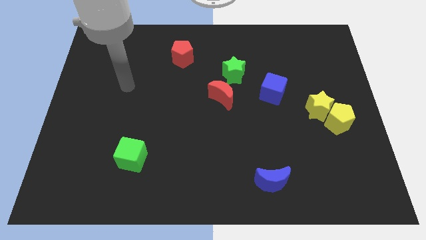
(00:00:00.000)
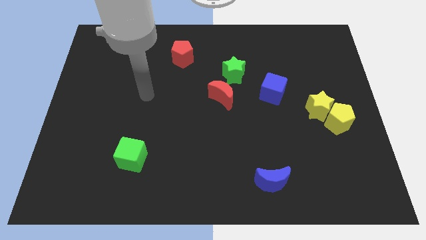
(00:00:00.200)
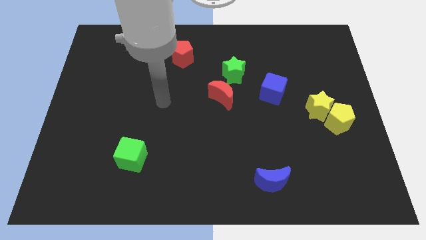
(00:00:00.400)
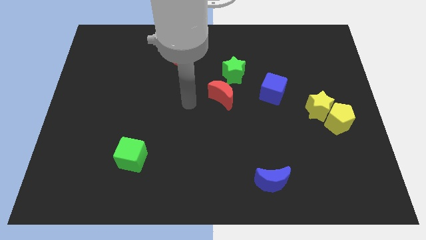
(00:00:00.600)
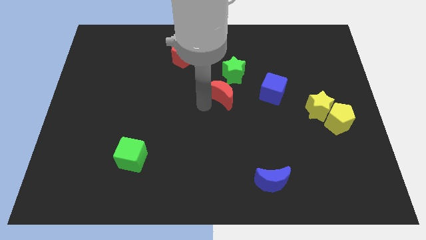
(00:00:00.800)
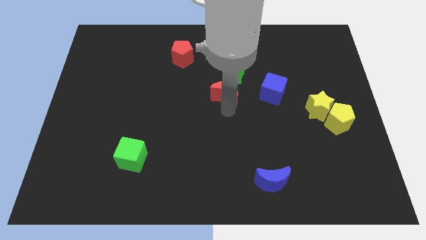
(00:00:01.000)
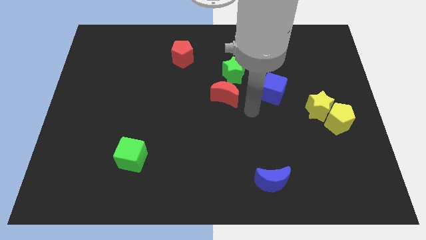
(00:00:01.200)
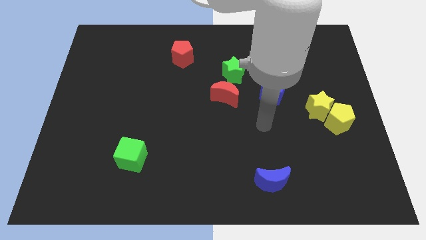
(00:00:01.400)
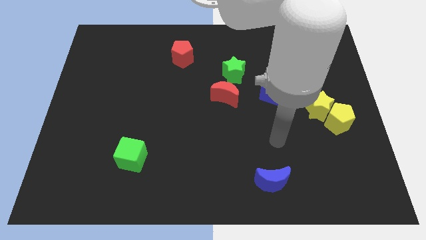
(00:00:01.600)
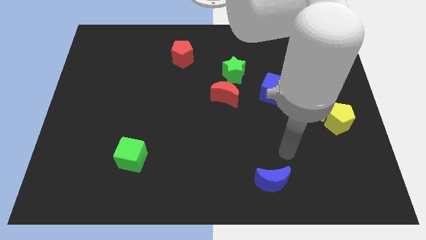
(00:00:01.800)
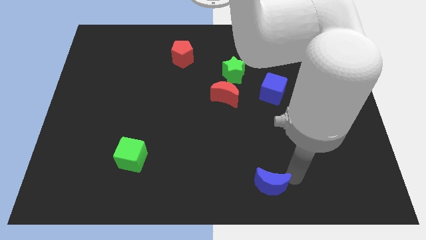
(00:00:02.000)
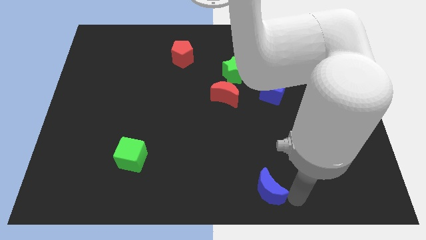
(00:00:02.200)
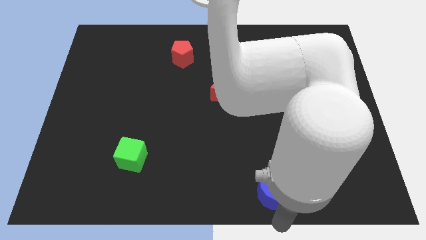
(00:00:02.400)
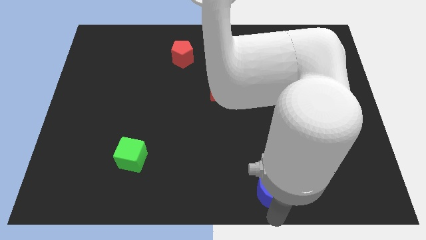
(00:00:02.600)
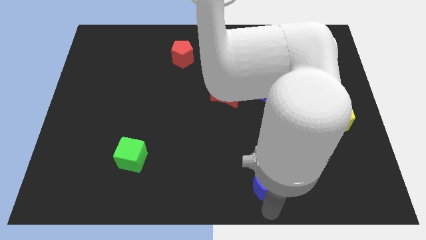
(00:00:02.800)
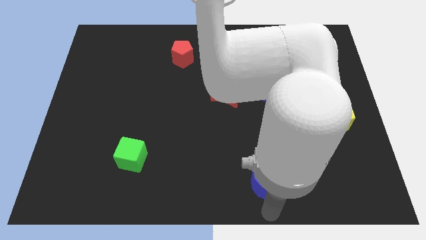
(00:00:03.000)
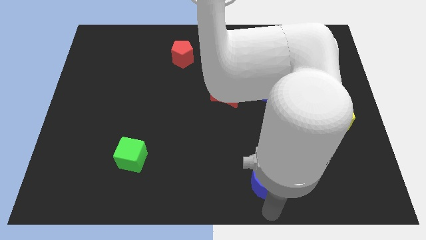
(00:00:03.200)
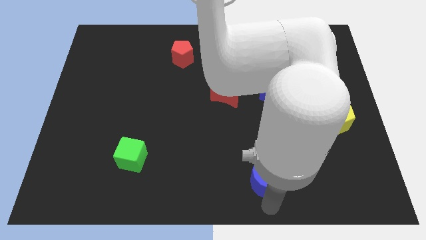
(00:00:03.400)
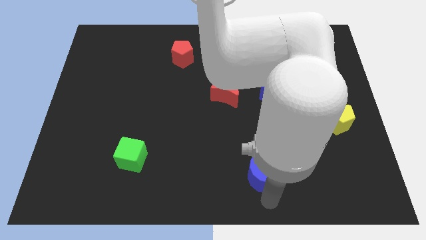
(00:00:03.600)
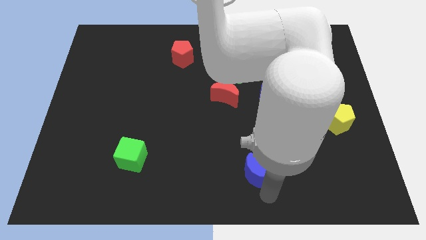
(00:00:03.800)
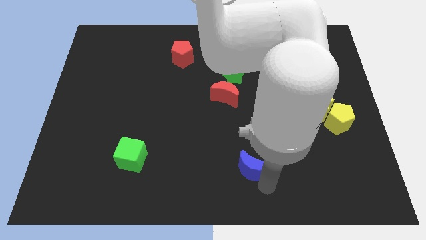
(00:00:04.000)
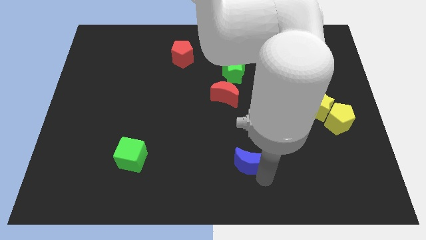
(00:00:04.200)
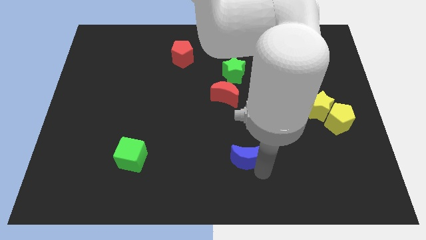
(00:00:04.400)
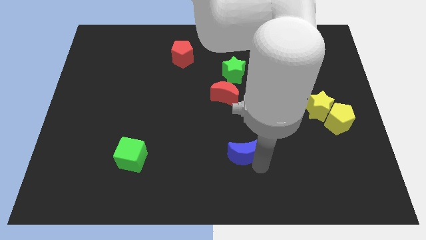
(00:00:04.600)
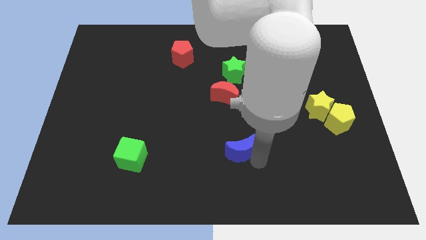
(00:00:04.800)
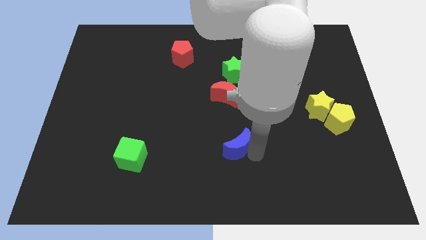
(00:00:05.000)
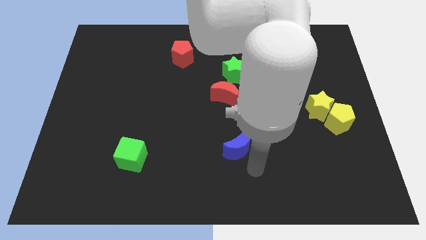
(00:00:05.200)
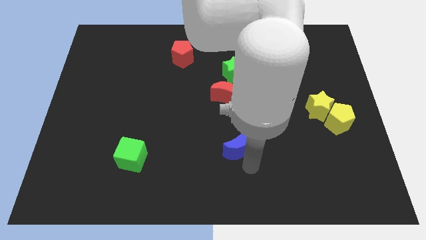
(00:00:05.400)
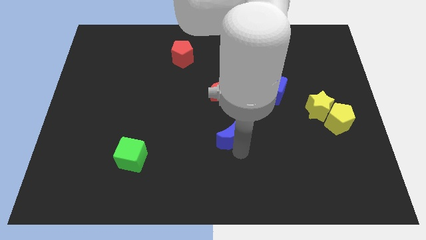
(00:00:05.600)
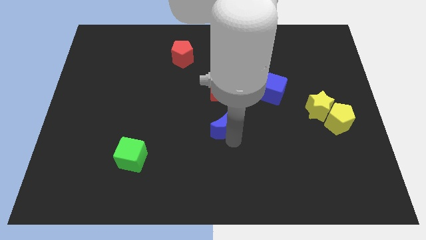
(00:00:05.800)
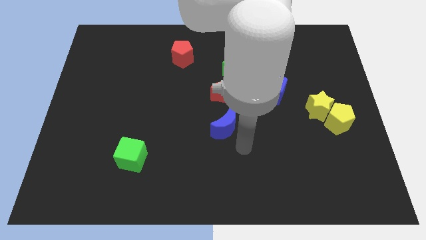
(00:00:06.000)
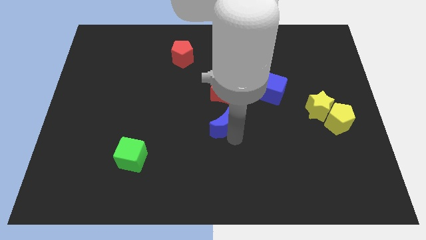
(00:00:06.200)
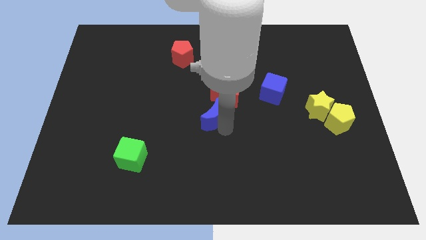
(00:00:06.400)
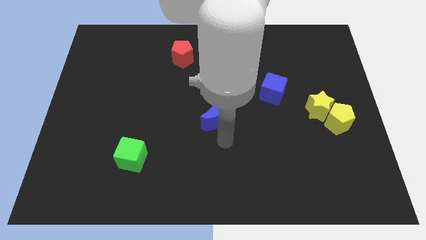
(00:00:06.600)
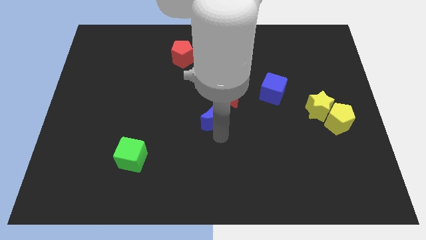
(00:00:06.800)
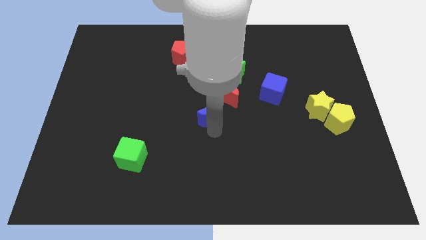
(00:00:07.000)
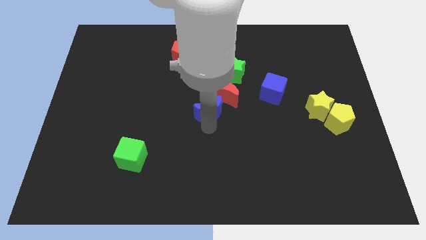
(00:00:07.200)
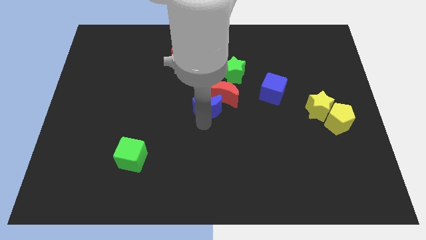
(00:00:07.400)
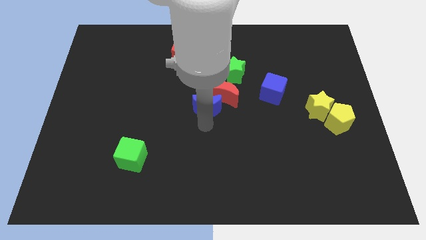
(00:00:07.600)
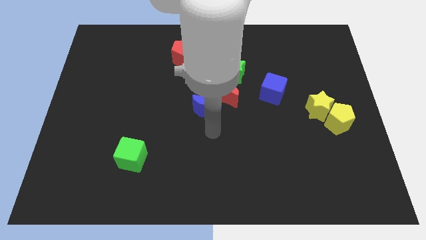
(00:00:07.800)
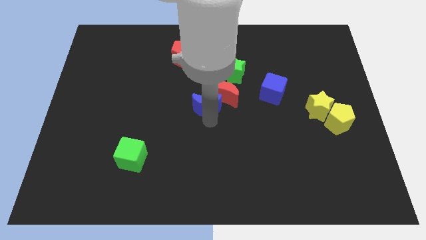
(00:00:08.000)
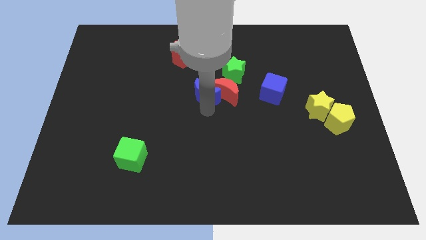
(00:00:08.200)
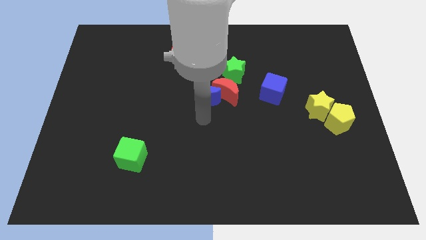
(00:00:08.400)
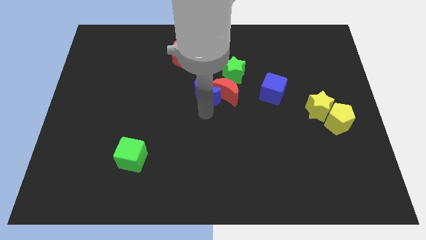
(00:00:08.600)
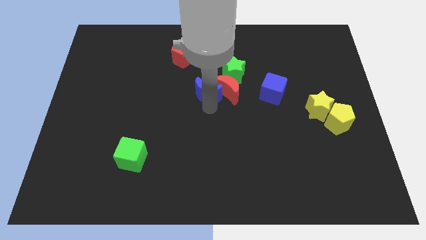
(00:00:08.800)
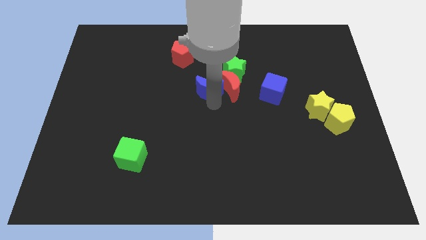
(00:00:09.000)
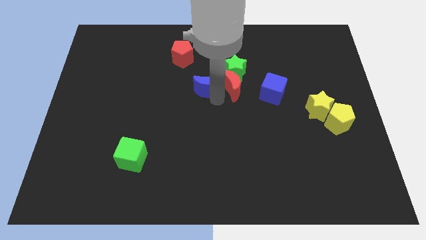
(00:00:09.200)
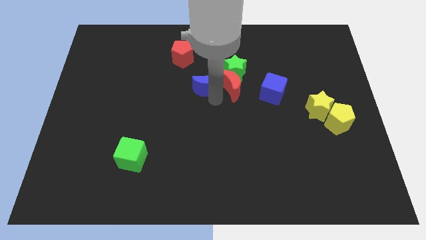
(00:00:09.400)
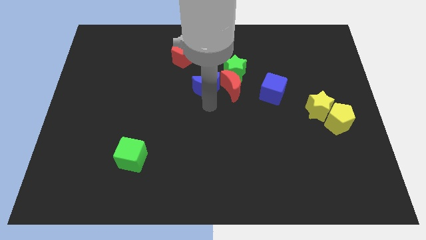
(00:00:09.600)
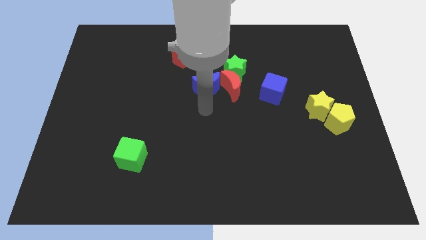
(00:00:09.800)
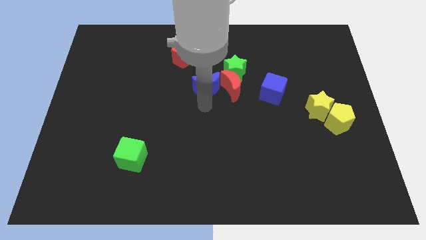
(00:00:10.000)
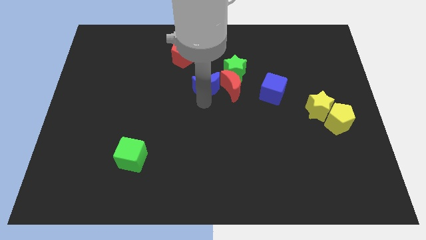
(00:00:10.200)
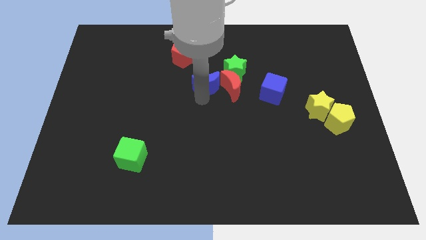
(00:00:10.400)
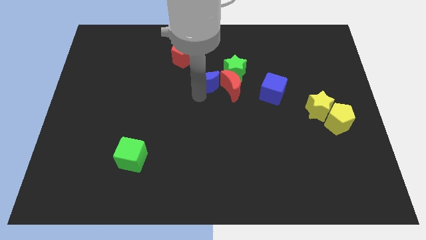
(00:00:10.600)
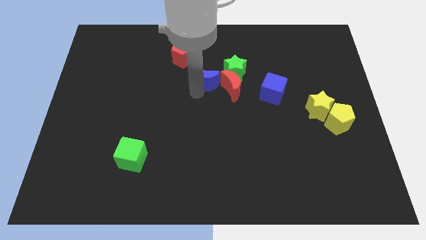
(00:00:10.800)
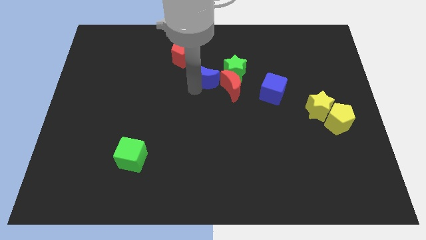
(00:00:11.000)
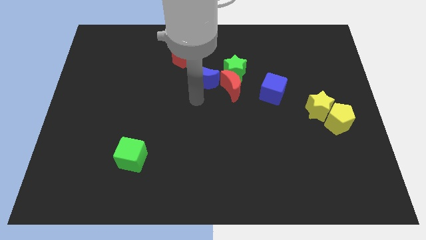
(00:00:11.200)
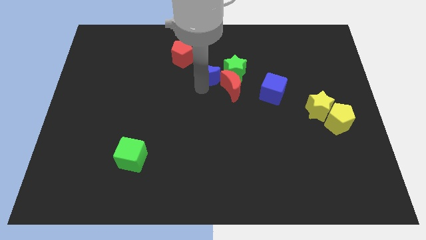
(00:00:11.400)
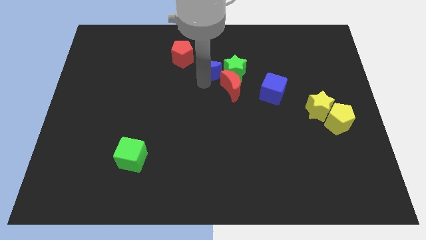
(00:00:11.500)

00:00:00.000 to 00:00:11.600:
move the blue moon diagonally up and to the left of the green star

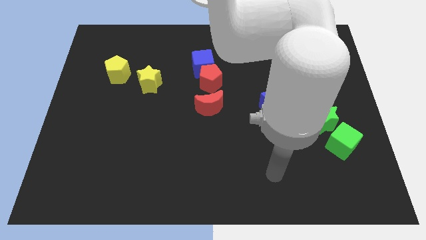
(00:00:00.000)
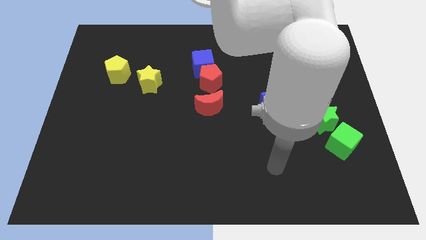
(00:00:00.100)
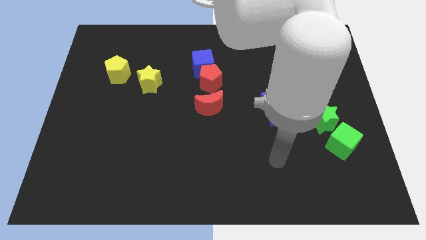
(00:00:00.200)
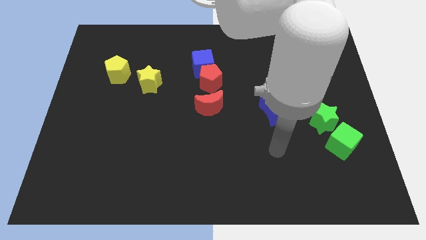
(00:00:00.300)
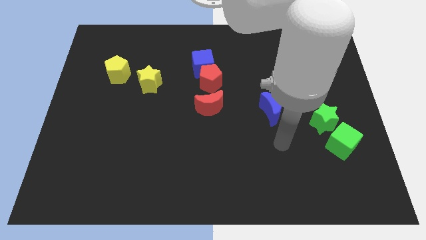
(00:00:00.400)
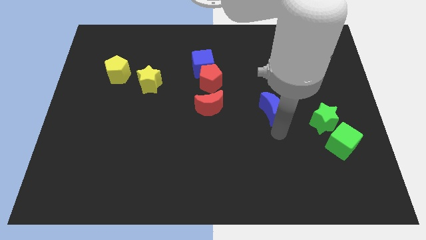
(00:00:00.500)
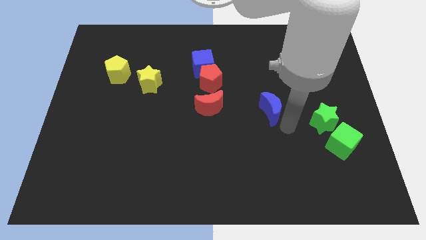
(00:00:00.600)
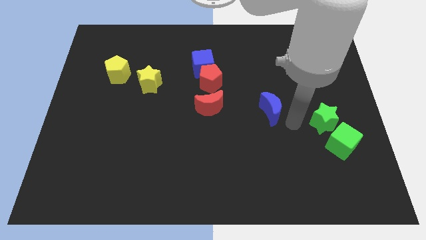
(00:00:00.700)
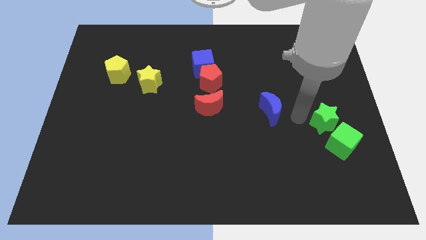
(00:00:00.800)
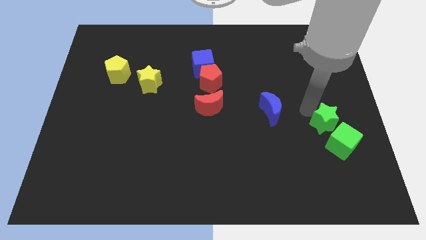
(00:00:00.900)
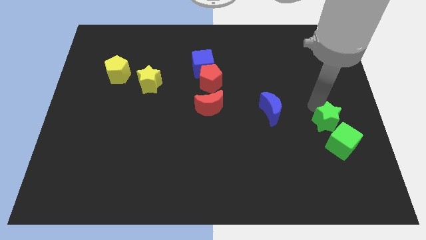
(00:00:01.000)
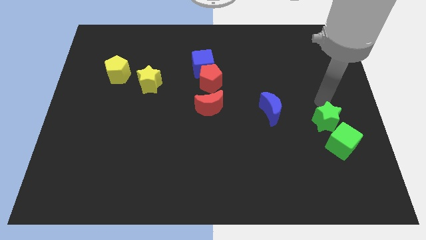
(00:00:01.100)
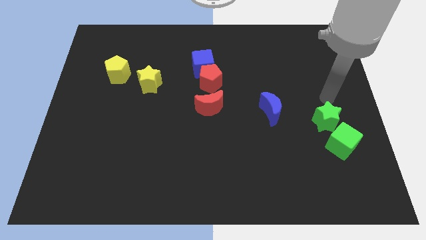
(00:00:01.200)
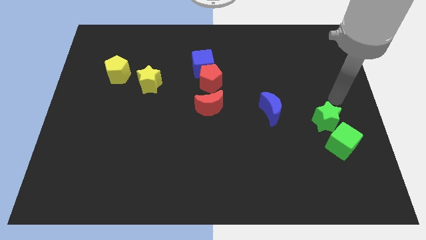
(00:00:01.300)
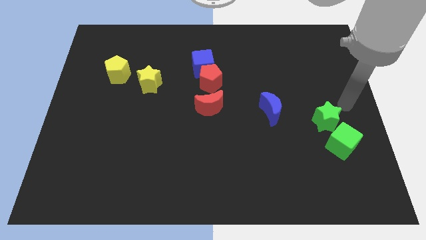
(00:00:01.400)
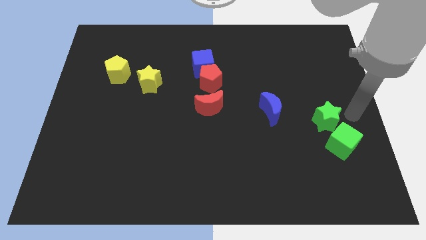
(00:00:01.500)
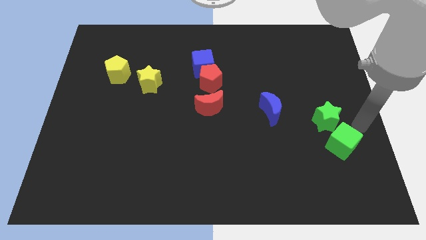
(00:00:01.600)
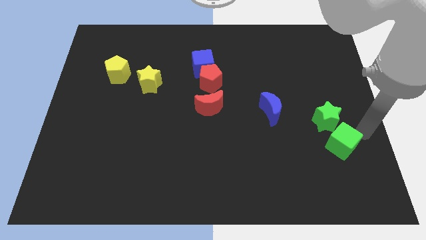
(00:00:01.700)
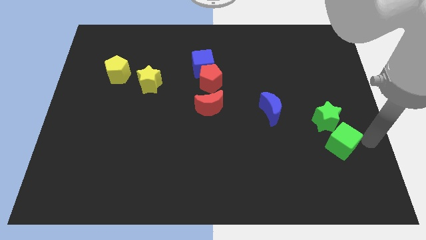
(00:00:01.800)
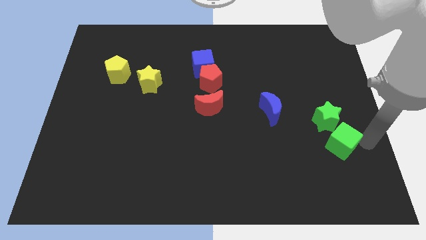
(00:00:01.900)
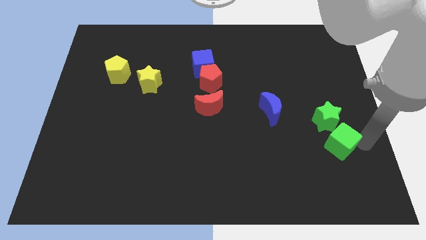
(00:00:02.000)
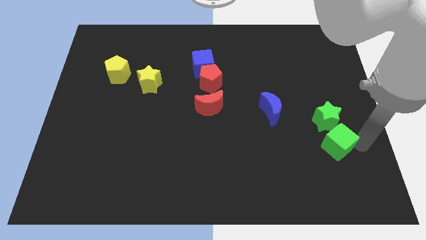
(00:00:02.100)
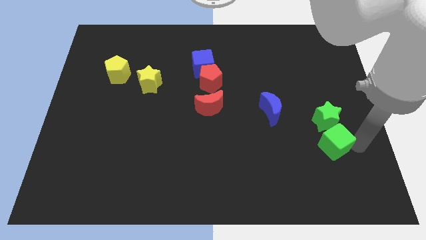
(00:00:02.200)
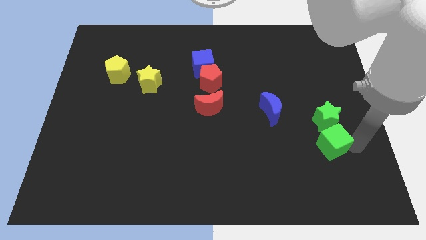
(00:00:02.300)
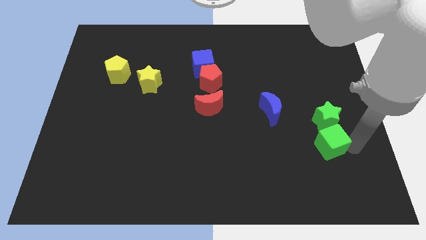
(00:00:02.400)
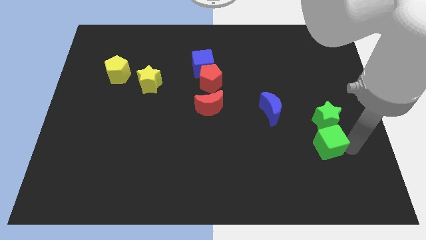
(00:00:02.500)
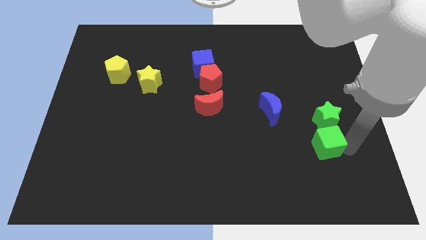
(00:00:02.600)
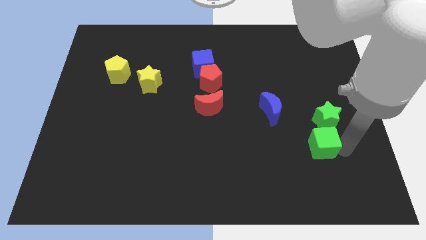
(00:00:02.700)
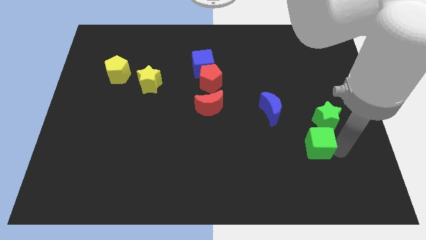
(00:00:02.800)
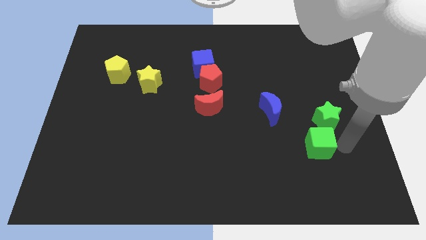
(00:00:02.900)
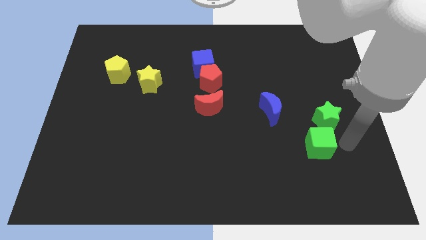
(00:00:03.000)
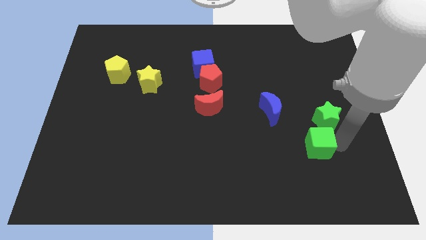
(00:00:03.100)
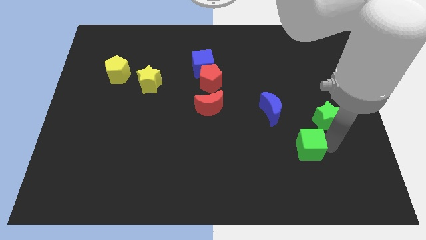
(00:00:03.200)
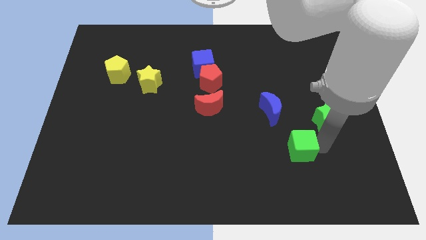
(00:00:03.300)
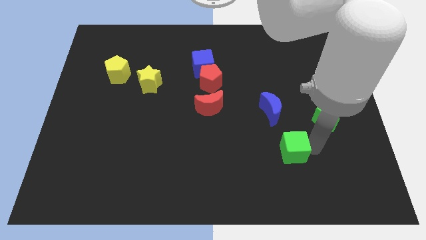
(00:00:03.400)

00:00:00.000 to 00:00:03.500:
put the green cube to the bottom side of the blue moon
